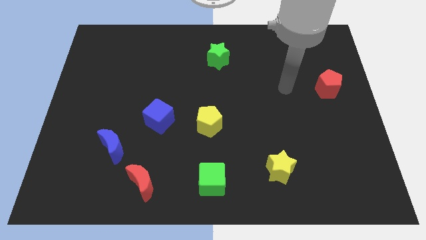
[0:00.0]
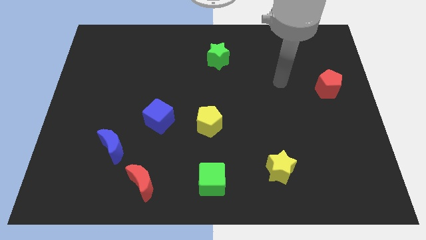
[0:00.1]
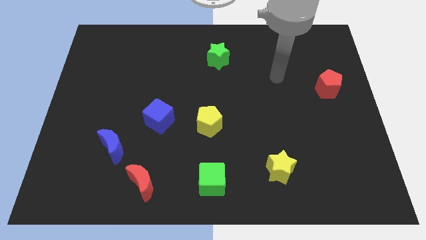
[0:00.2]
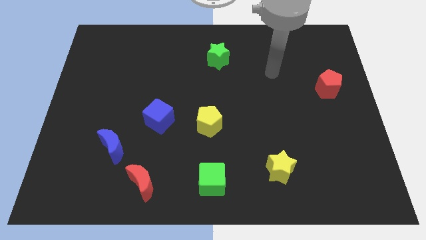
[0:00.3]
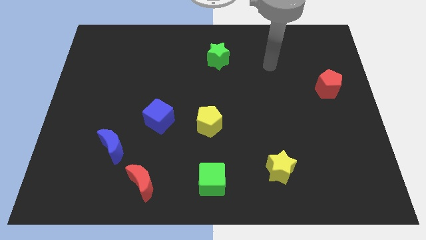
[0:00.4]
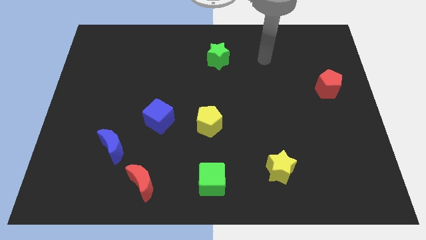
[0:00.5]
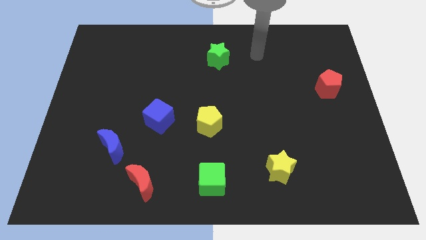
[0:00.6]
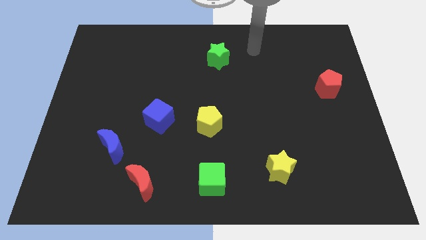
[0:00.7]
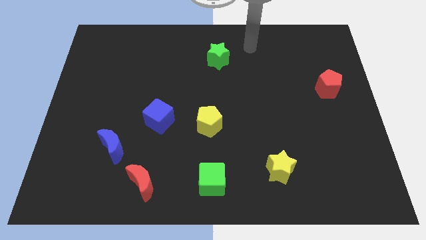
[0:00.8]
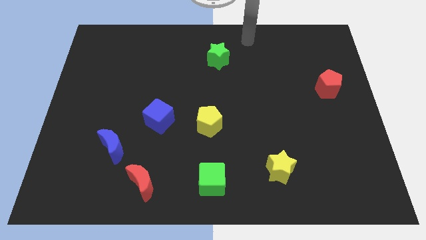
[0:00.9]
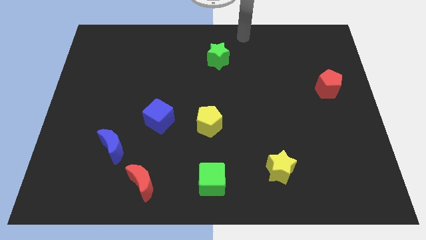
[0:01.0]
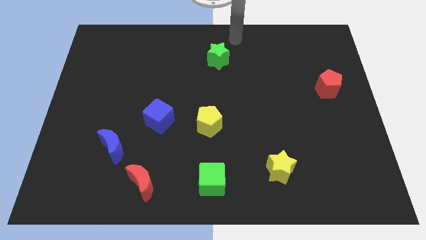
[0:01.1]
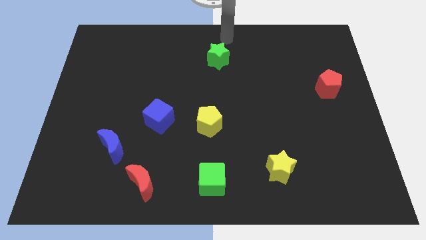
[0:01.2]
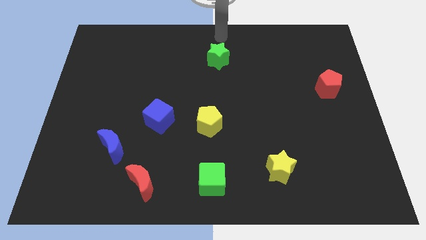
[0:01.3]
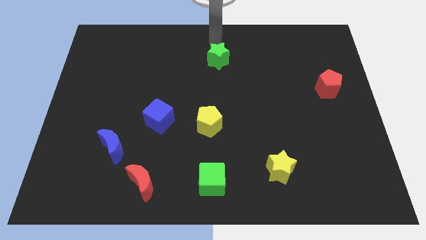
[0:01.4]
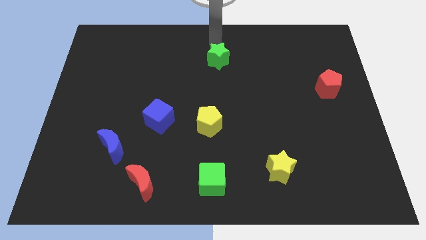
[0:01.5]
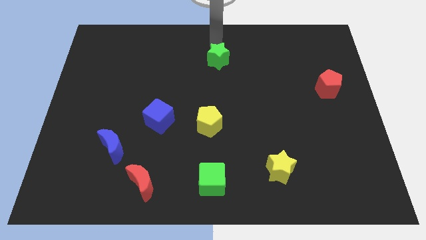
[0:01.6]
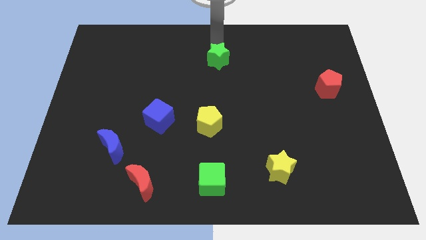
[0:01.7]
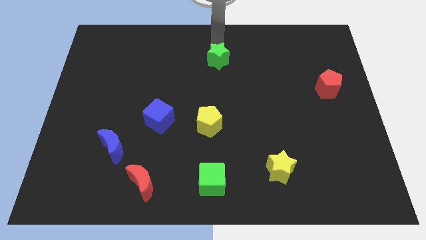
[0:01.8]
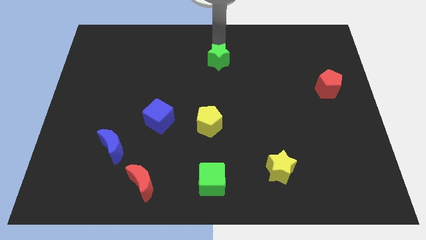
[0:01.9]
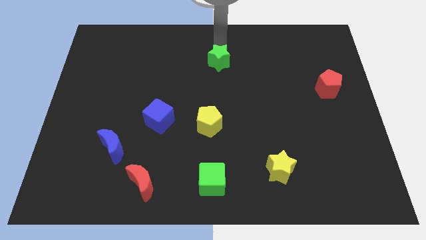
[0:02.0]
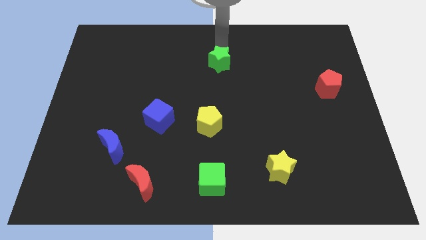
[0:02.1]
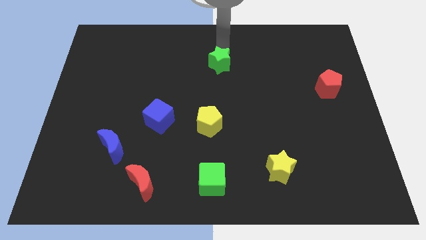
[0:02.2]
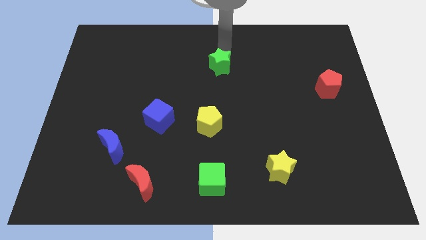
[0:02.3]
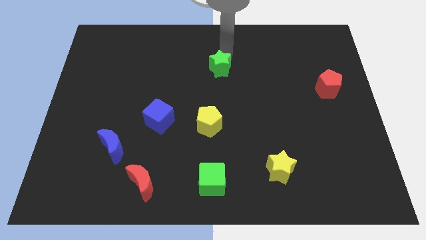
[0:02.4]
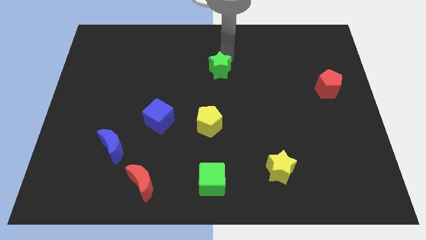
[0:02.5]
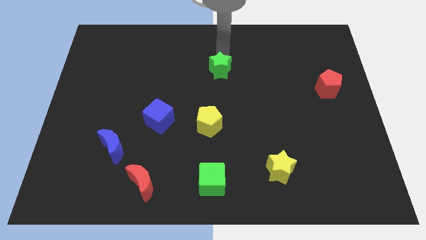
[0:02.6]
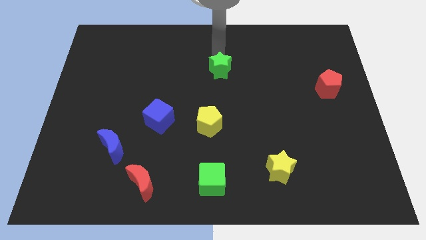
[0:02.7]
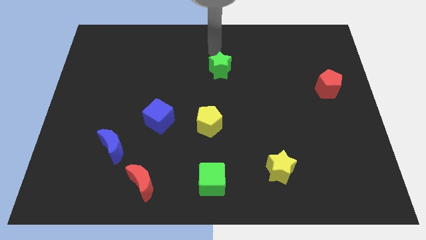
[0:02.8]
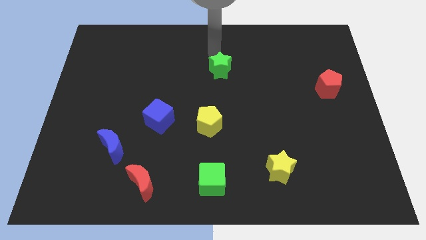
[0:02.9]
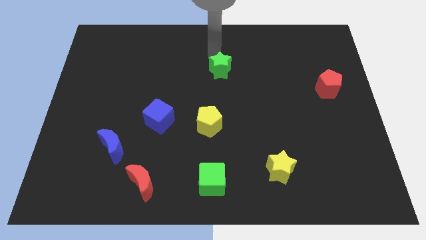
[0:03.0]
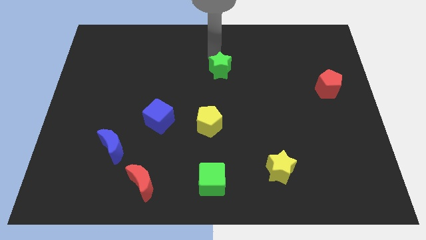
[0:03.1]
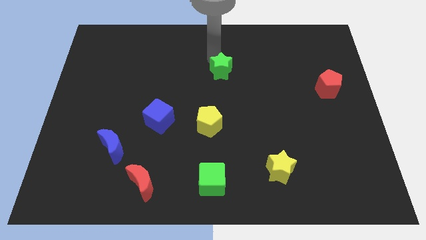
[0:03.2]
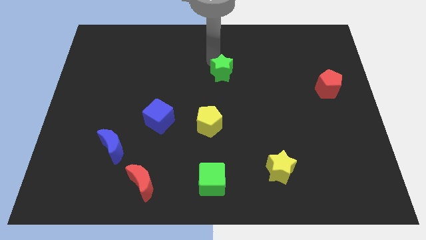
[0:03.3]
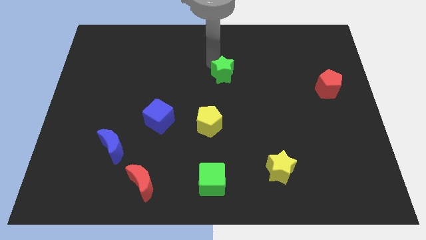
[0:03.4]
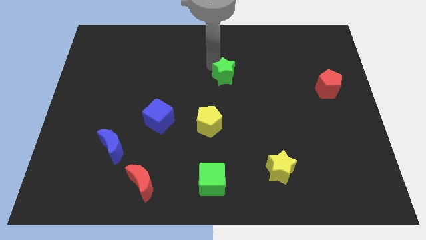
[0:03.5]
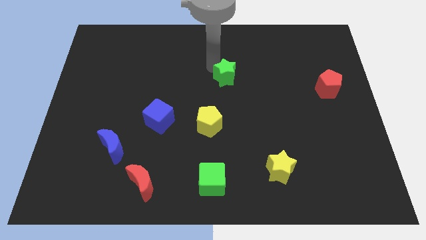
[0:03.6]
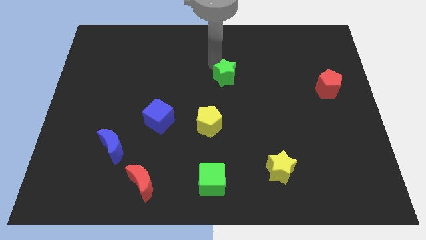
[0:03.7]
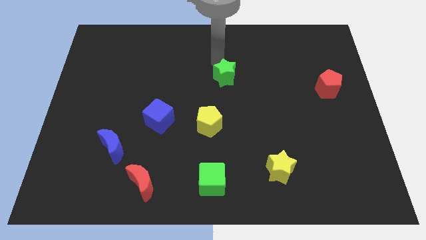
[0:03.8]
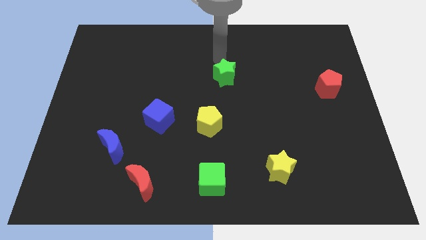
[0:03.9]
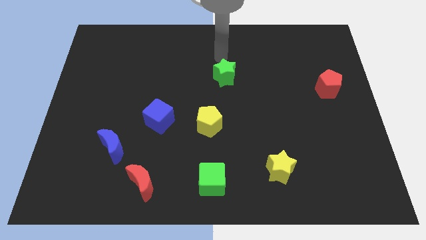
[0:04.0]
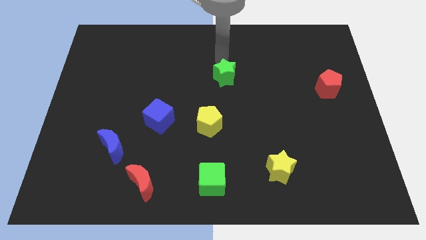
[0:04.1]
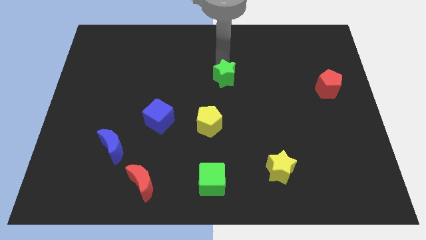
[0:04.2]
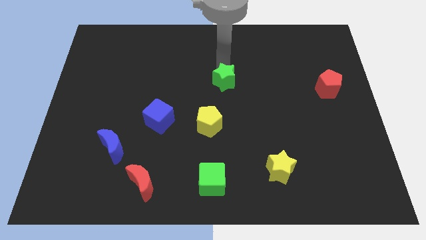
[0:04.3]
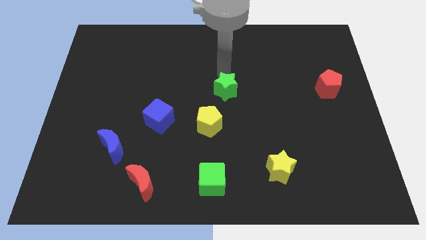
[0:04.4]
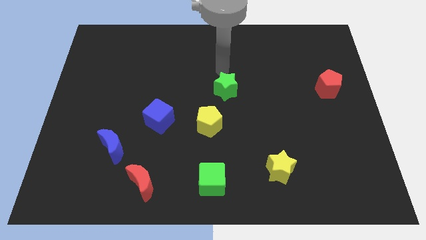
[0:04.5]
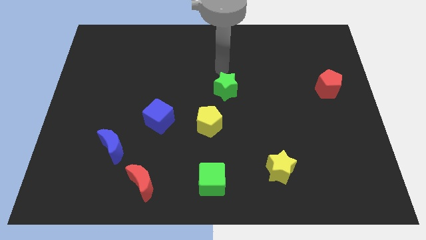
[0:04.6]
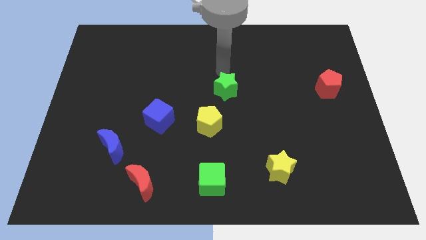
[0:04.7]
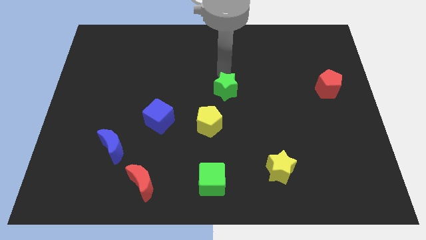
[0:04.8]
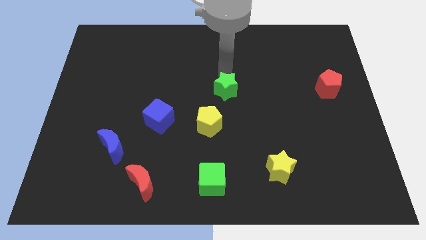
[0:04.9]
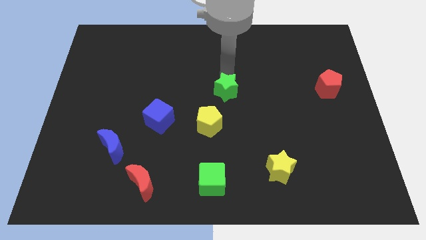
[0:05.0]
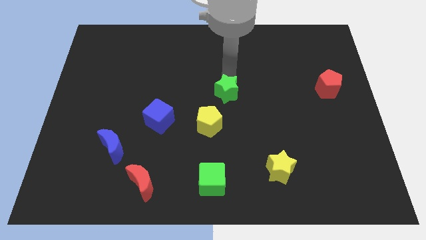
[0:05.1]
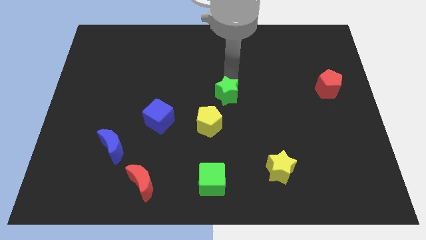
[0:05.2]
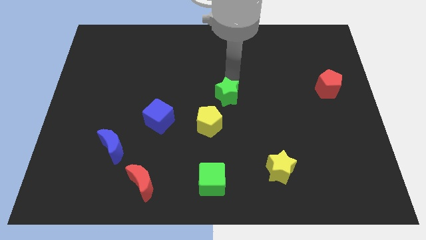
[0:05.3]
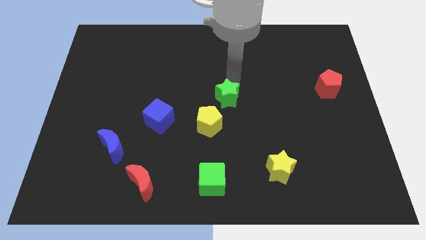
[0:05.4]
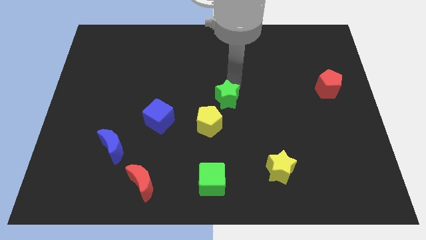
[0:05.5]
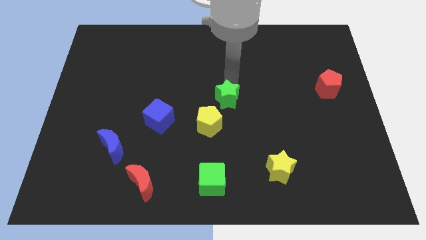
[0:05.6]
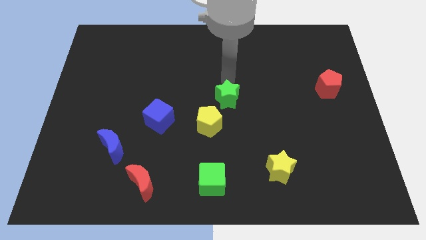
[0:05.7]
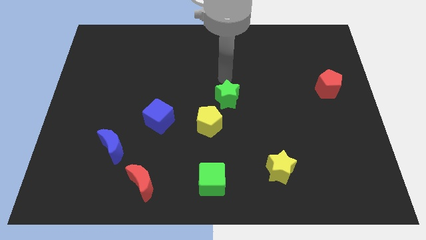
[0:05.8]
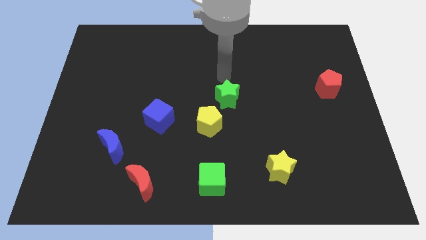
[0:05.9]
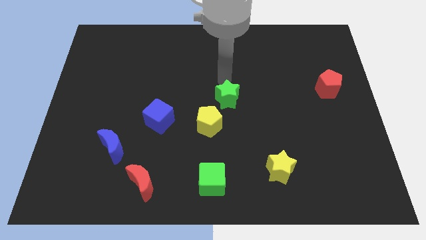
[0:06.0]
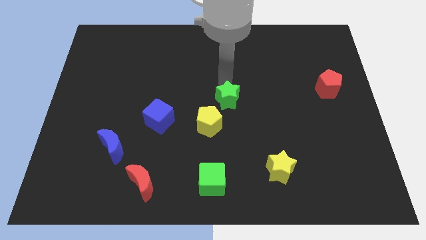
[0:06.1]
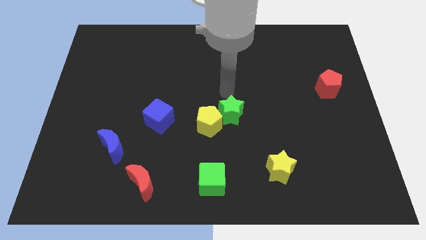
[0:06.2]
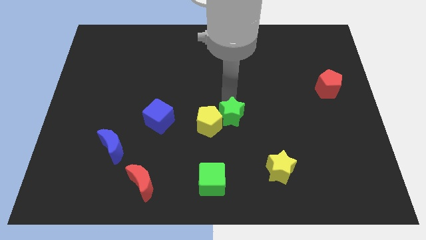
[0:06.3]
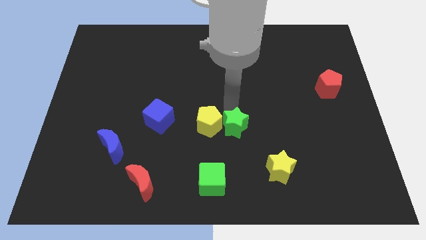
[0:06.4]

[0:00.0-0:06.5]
slide the green star diagonally down and to the right of the yellow pentagon
